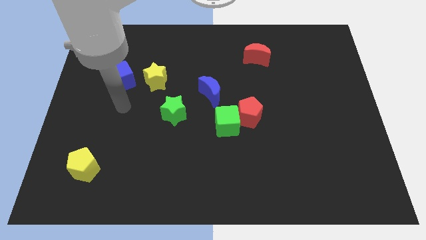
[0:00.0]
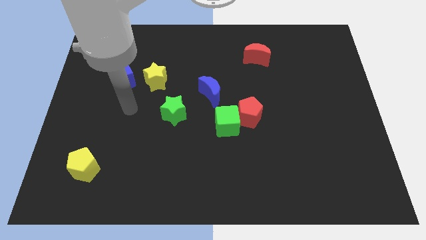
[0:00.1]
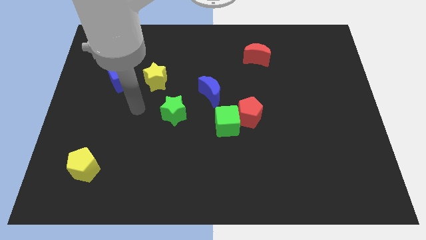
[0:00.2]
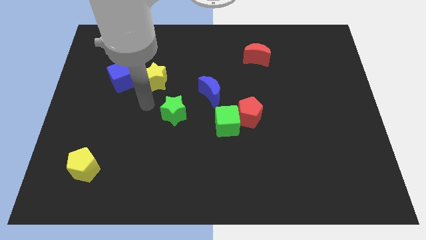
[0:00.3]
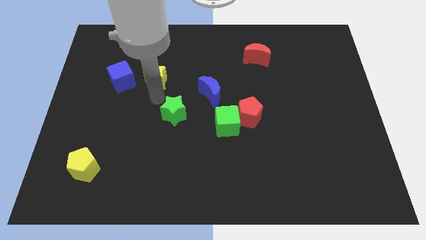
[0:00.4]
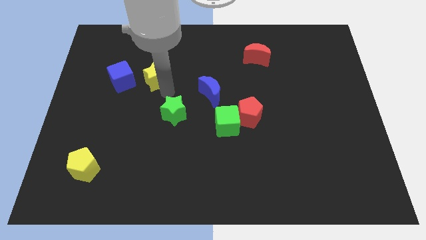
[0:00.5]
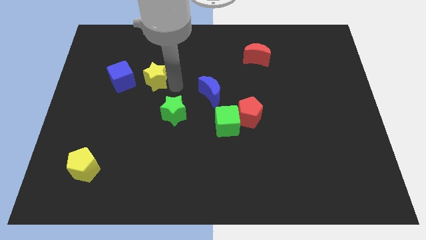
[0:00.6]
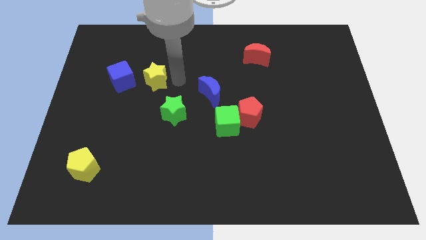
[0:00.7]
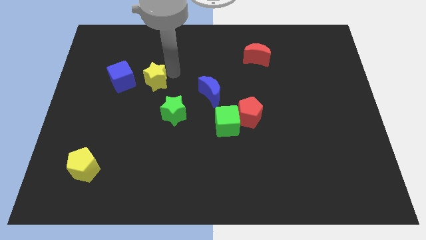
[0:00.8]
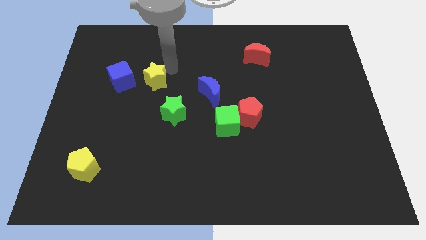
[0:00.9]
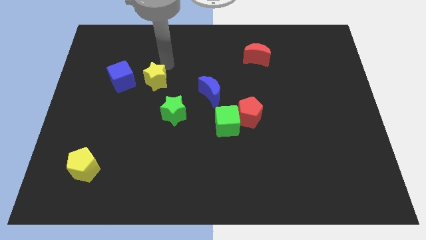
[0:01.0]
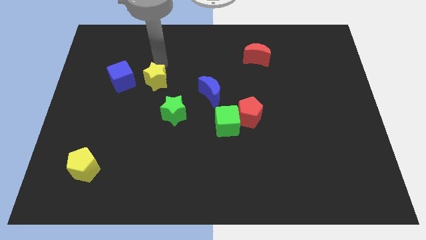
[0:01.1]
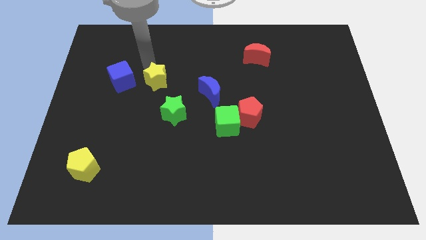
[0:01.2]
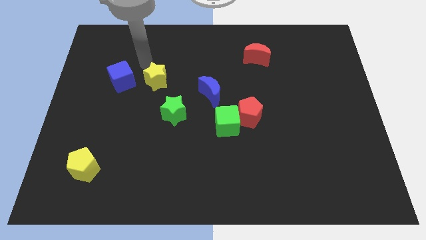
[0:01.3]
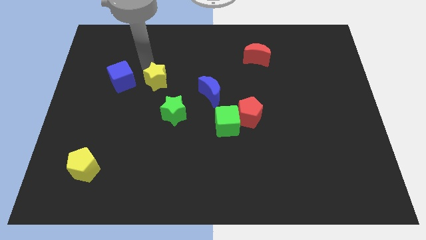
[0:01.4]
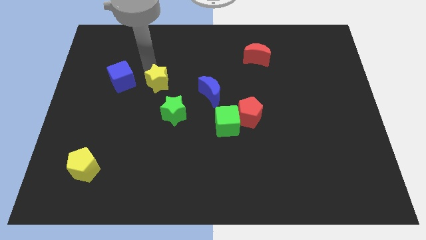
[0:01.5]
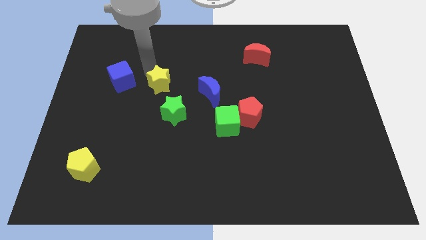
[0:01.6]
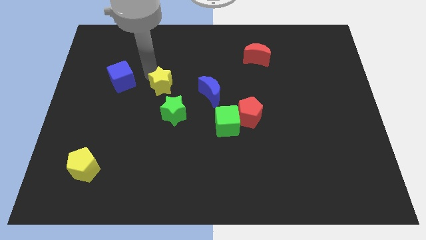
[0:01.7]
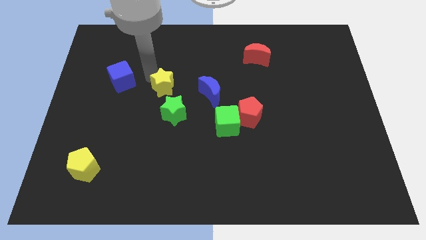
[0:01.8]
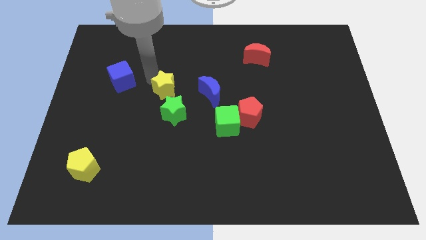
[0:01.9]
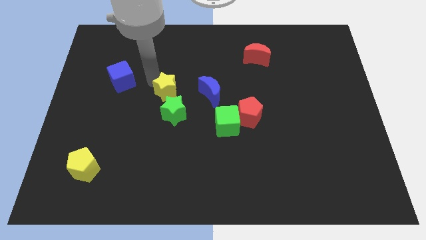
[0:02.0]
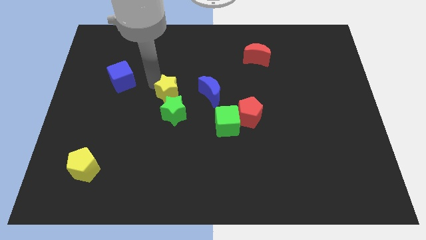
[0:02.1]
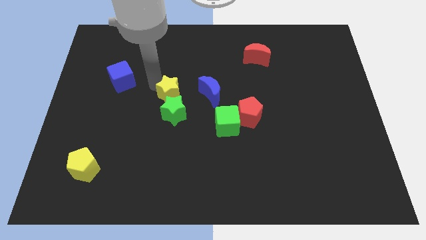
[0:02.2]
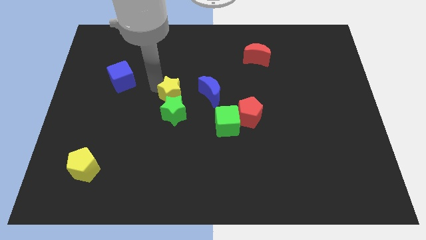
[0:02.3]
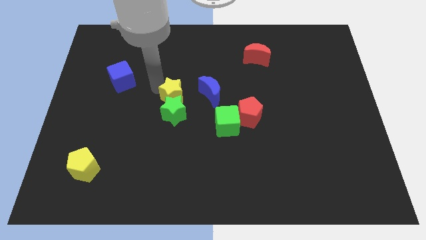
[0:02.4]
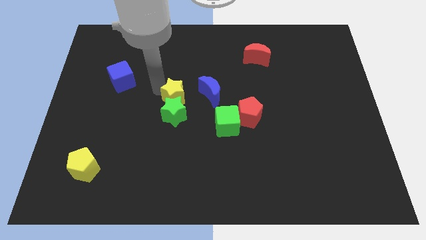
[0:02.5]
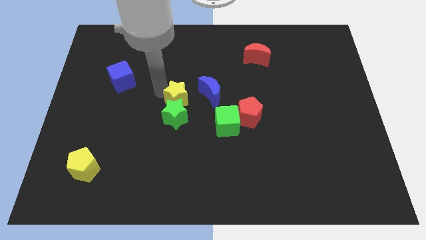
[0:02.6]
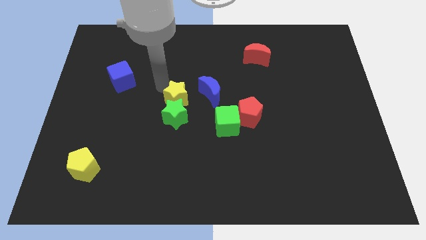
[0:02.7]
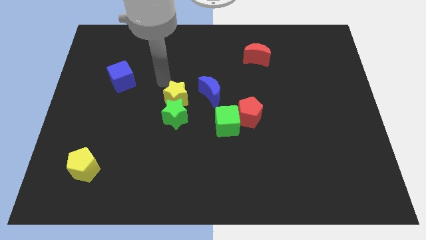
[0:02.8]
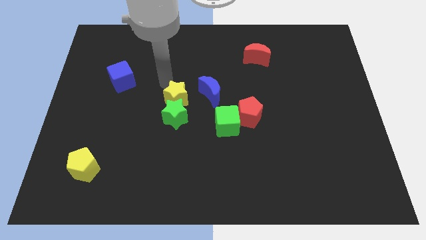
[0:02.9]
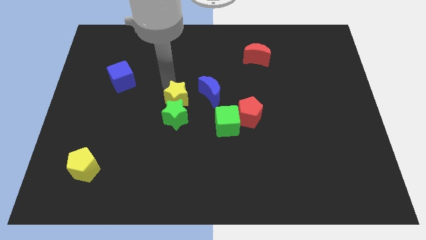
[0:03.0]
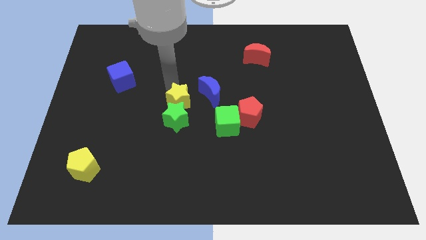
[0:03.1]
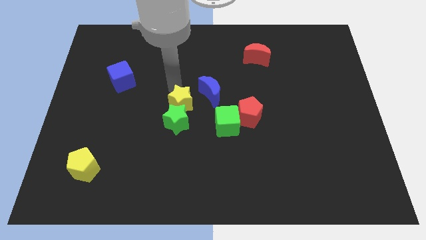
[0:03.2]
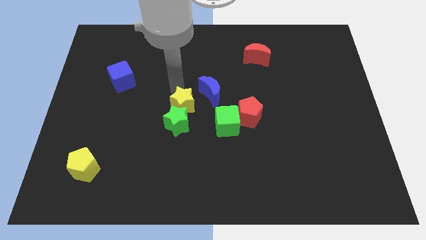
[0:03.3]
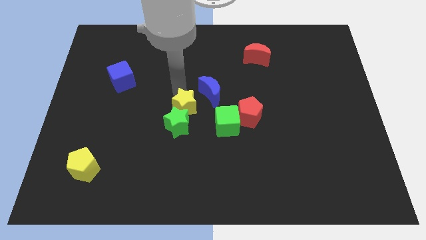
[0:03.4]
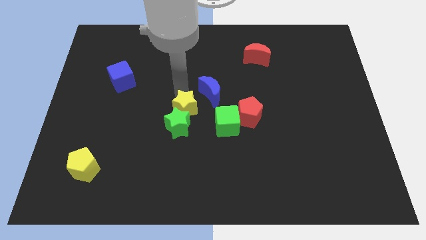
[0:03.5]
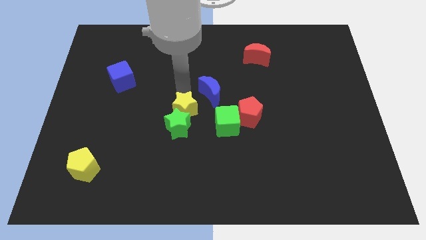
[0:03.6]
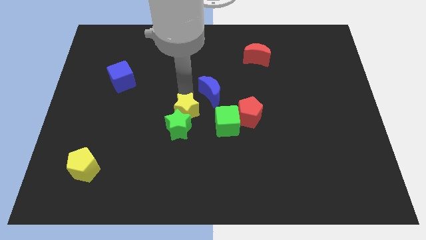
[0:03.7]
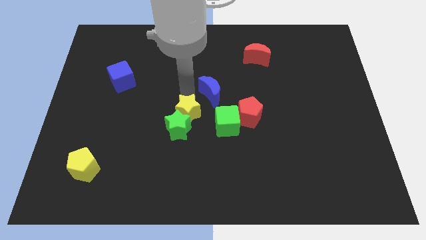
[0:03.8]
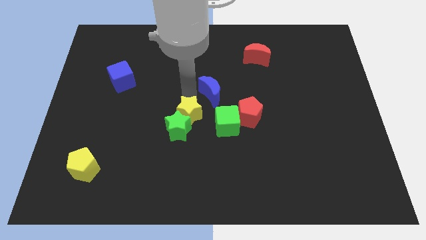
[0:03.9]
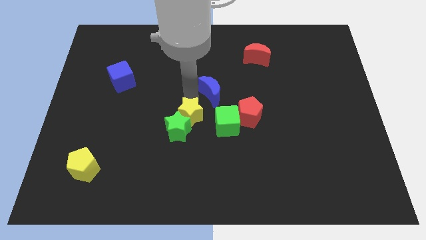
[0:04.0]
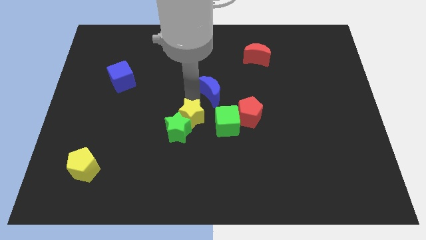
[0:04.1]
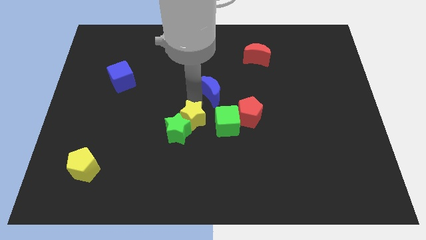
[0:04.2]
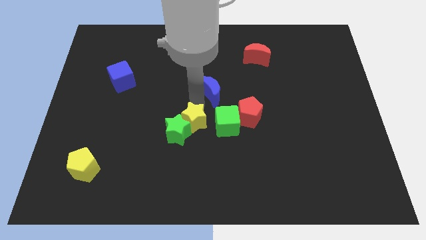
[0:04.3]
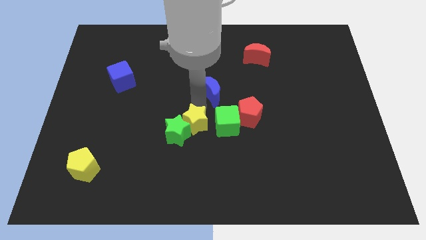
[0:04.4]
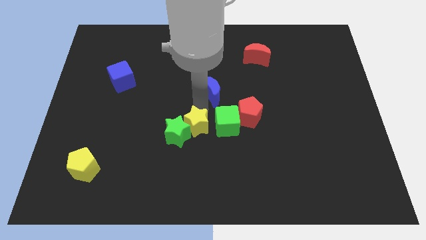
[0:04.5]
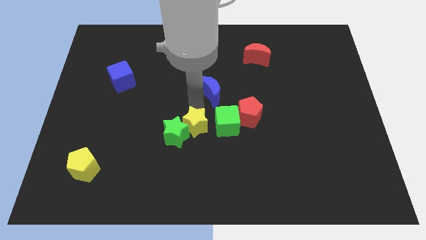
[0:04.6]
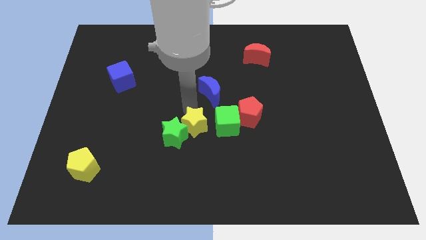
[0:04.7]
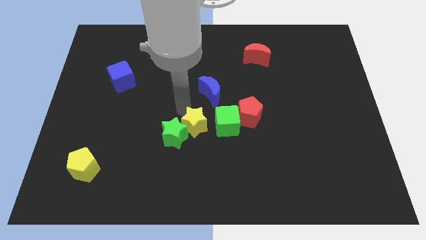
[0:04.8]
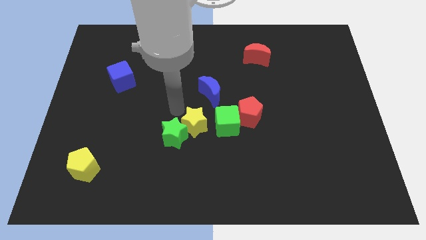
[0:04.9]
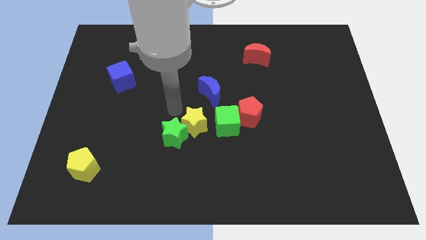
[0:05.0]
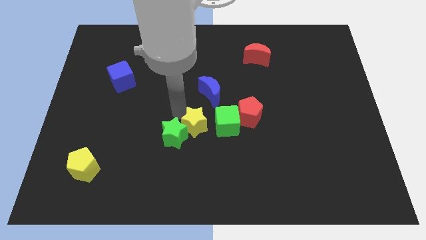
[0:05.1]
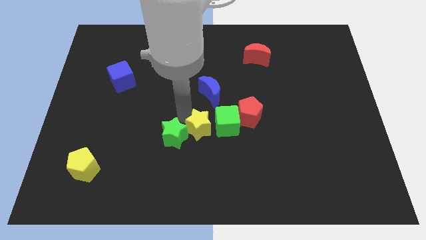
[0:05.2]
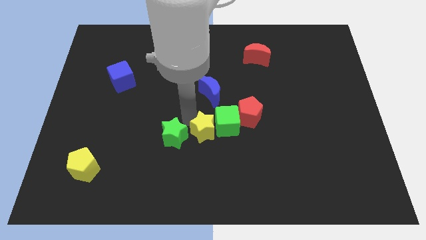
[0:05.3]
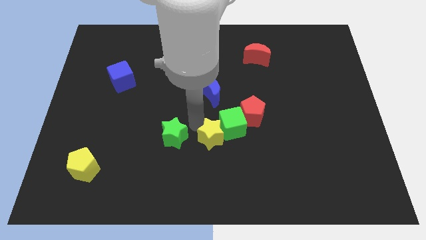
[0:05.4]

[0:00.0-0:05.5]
move the yellow star down and then to the right

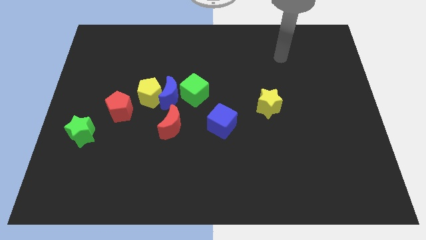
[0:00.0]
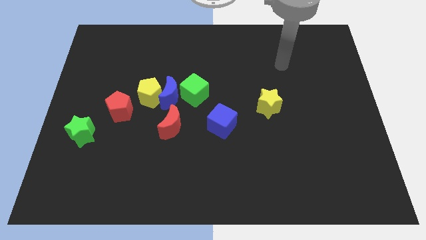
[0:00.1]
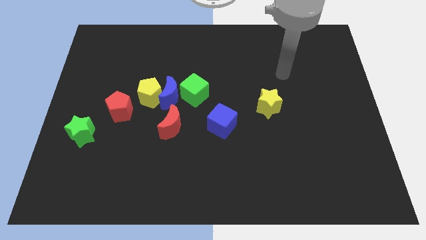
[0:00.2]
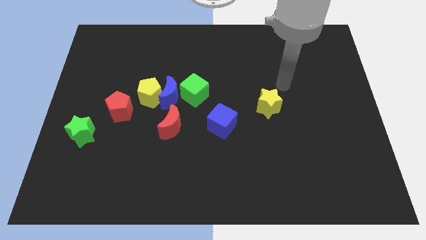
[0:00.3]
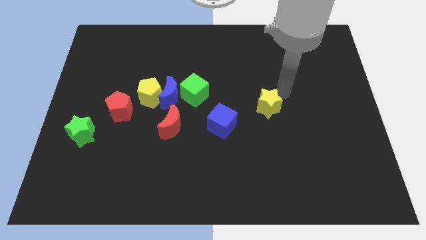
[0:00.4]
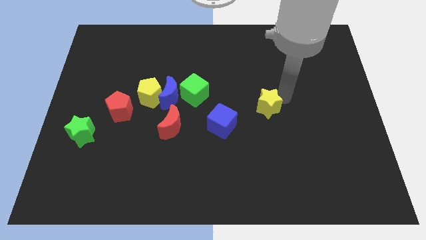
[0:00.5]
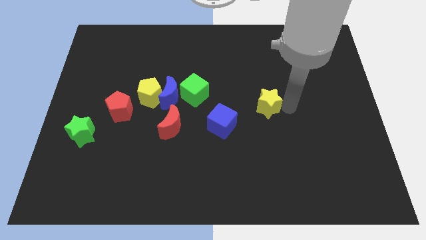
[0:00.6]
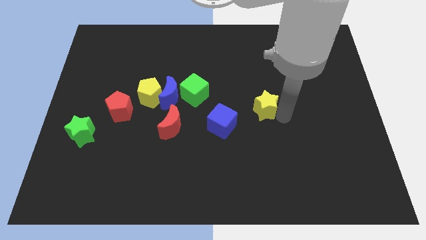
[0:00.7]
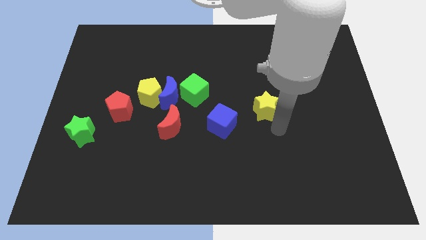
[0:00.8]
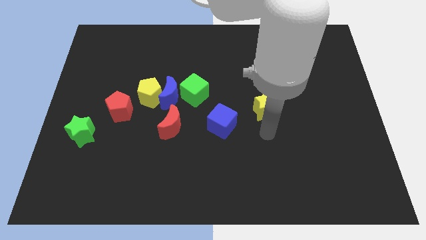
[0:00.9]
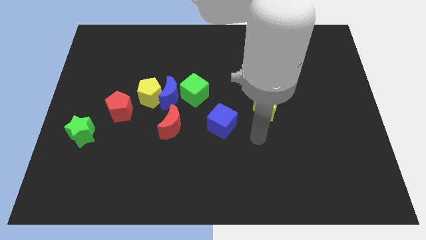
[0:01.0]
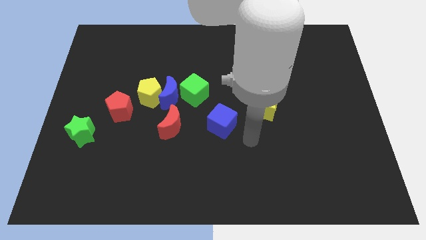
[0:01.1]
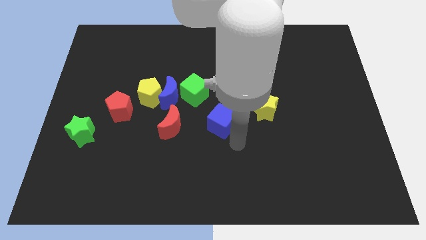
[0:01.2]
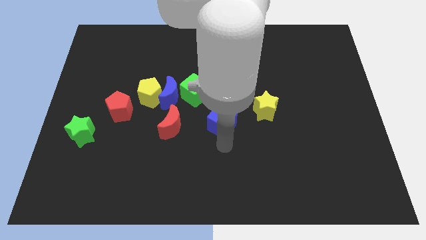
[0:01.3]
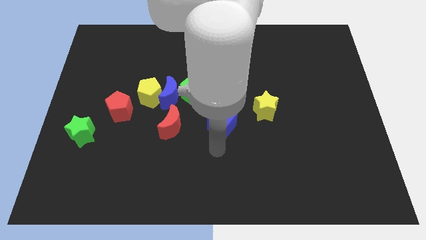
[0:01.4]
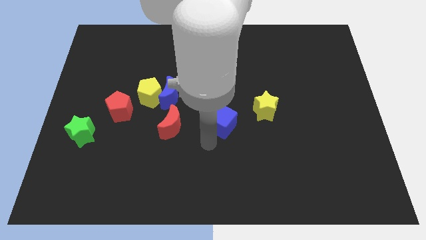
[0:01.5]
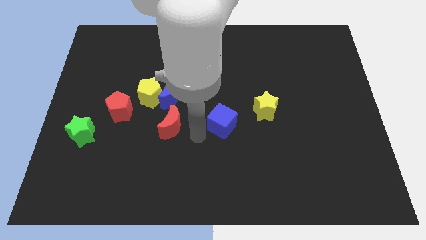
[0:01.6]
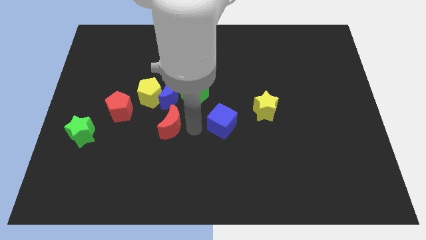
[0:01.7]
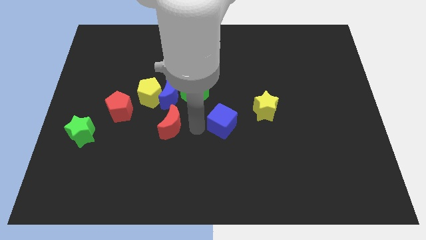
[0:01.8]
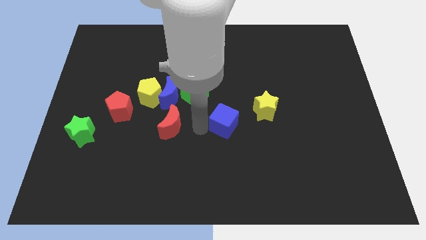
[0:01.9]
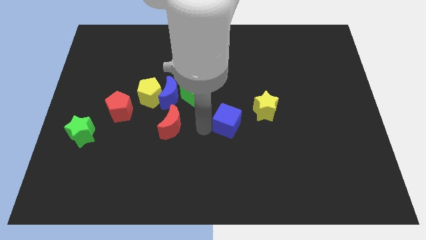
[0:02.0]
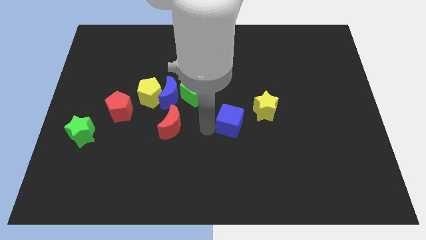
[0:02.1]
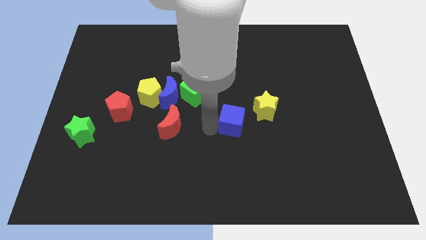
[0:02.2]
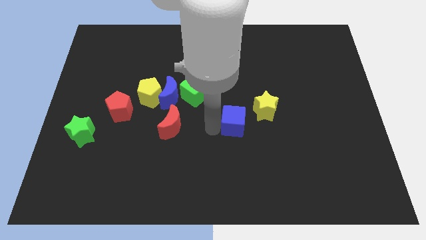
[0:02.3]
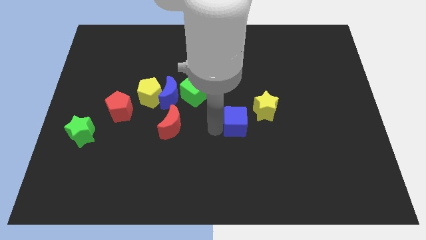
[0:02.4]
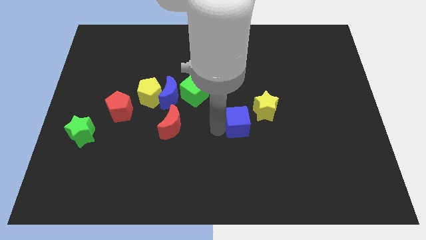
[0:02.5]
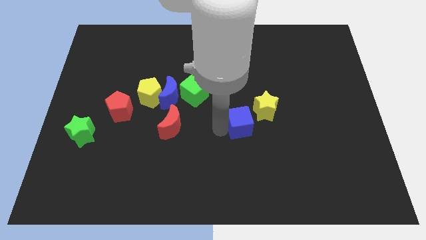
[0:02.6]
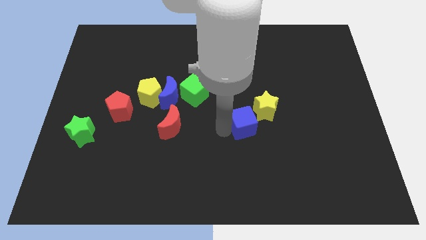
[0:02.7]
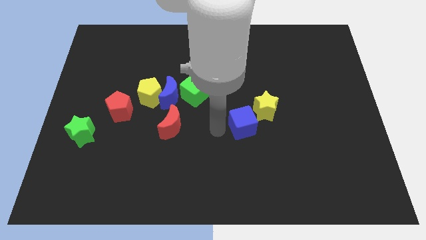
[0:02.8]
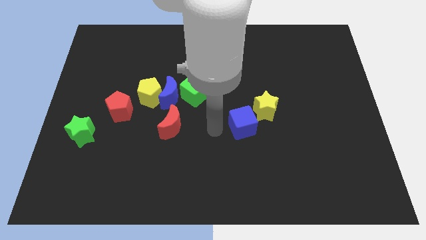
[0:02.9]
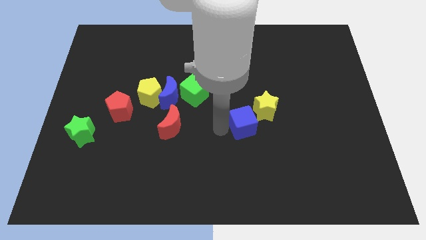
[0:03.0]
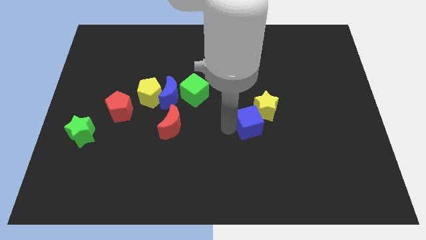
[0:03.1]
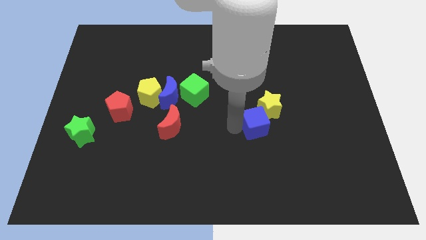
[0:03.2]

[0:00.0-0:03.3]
move the blue cube a bit right
